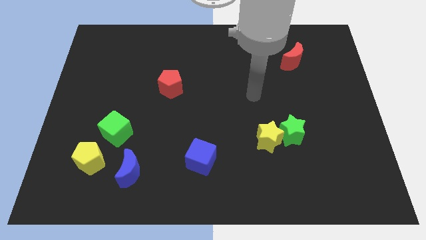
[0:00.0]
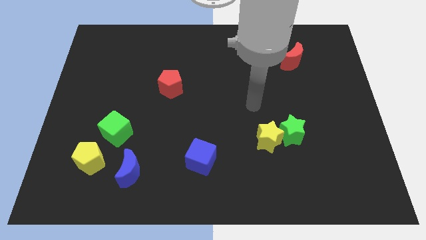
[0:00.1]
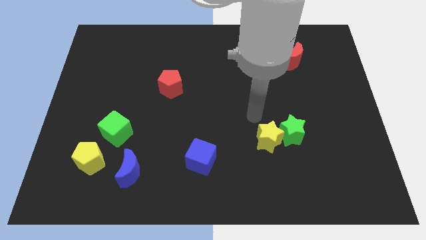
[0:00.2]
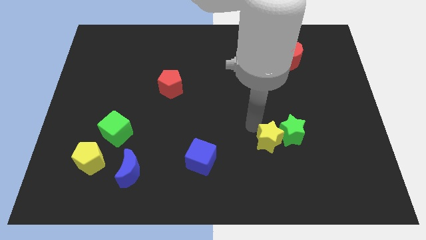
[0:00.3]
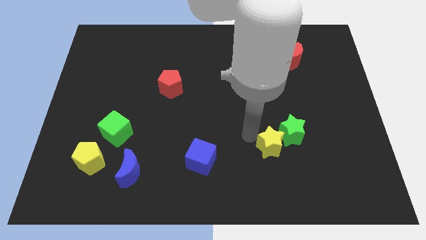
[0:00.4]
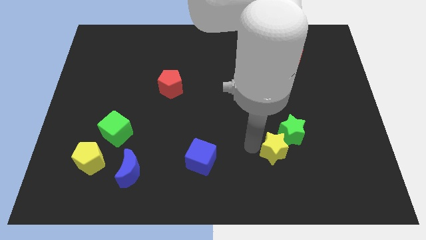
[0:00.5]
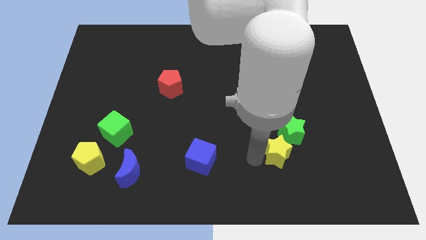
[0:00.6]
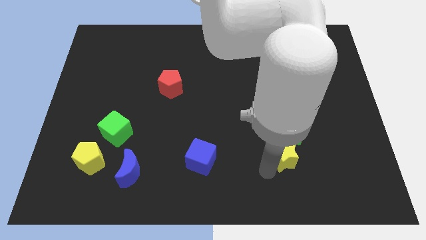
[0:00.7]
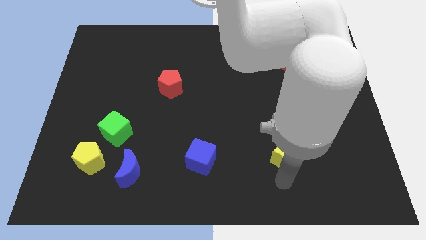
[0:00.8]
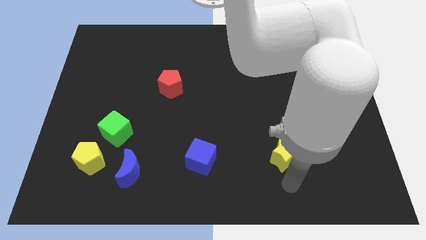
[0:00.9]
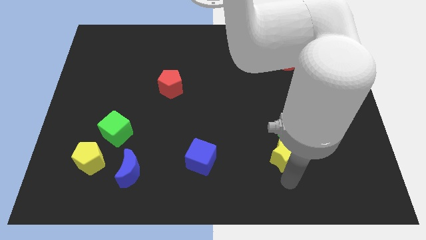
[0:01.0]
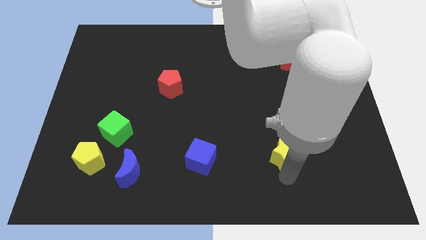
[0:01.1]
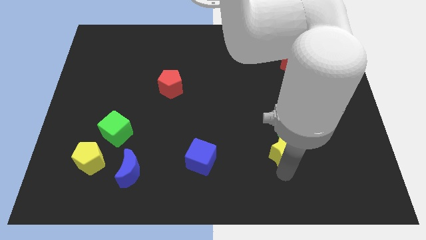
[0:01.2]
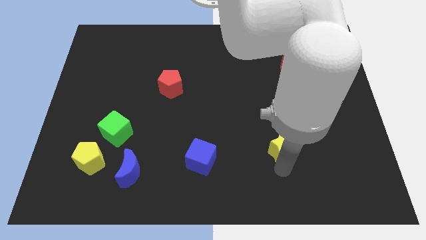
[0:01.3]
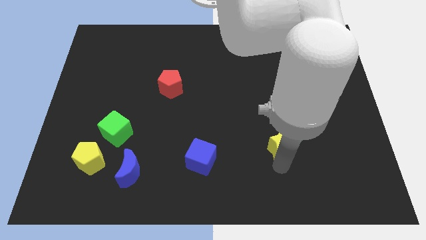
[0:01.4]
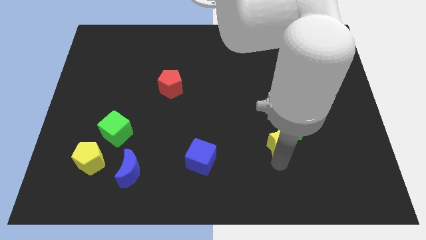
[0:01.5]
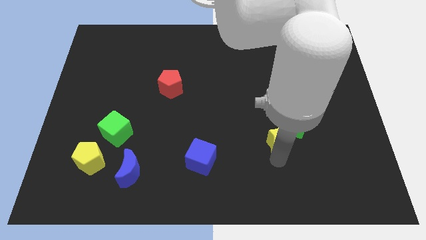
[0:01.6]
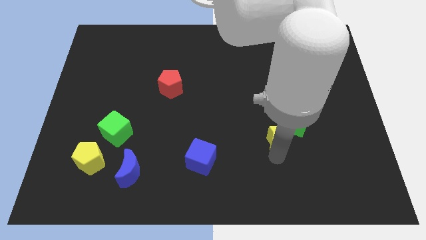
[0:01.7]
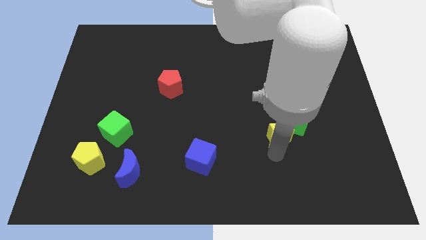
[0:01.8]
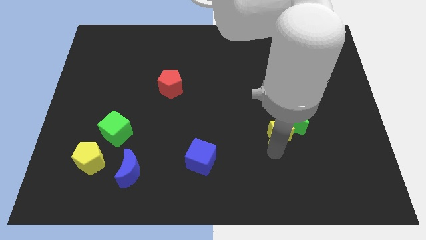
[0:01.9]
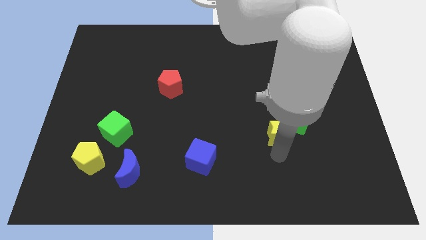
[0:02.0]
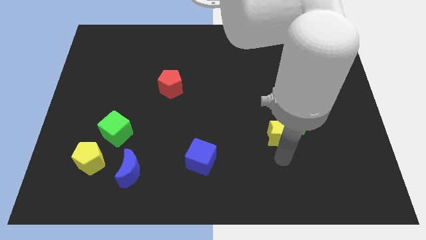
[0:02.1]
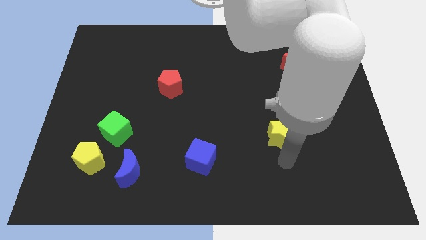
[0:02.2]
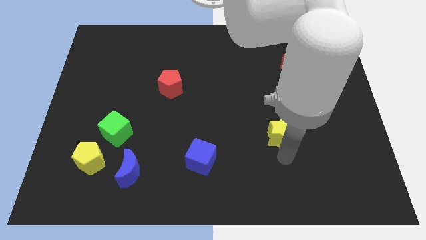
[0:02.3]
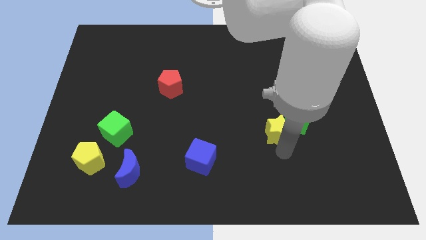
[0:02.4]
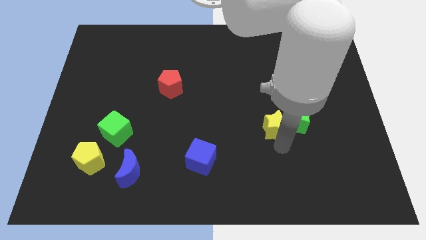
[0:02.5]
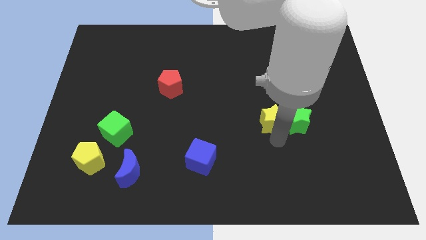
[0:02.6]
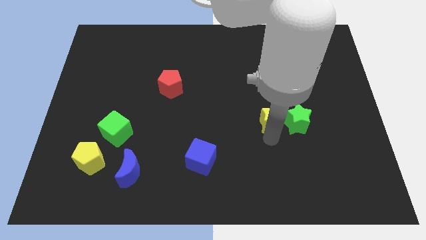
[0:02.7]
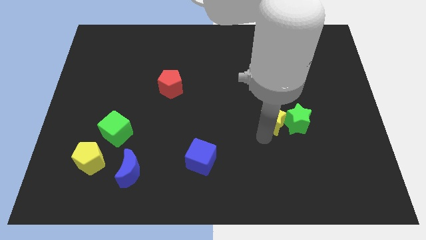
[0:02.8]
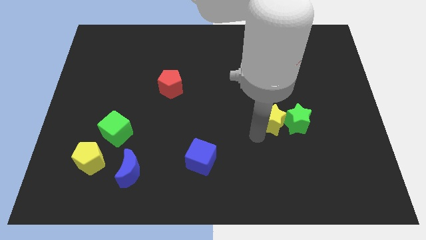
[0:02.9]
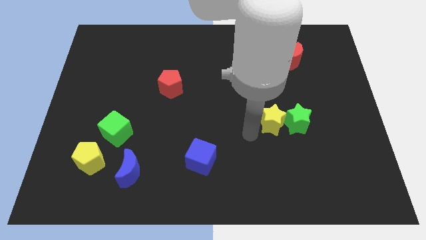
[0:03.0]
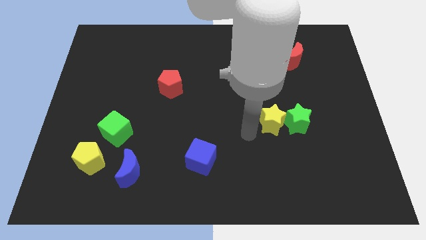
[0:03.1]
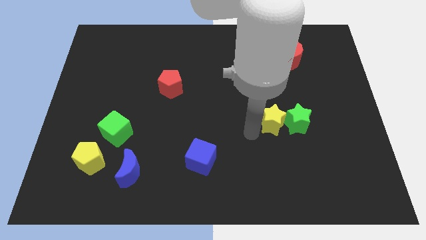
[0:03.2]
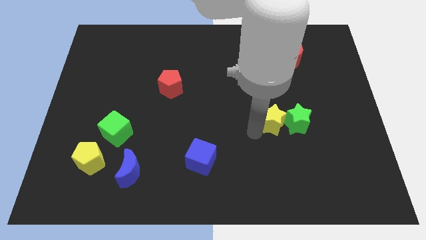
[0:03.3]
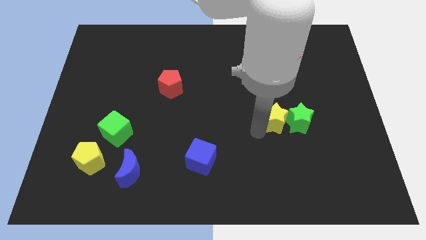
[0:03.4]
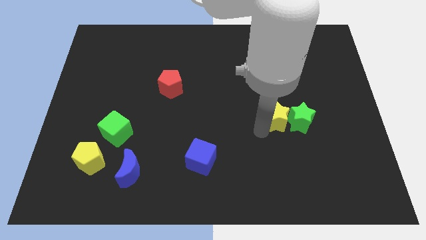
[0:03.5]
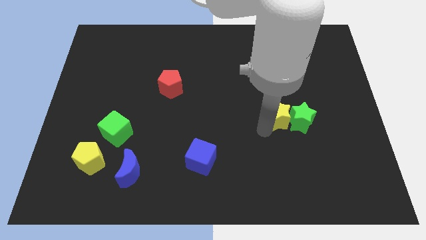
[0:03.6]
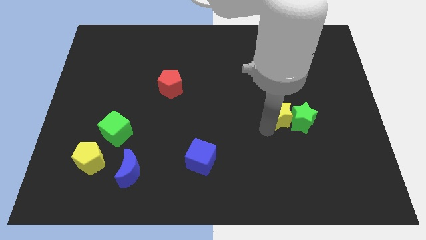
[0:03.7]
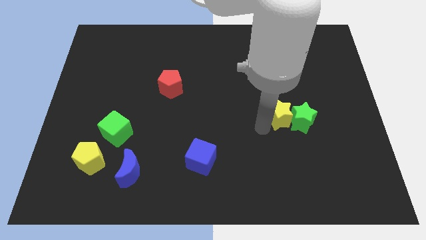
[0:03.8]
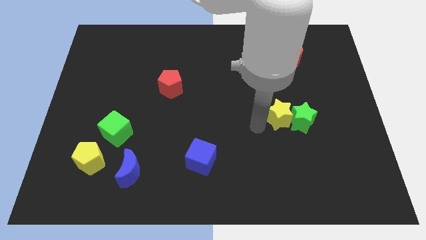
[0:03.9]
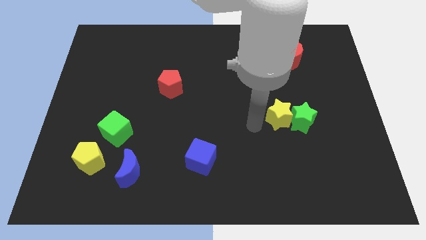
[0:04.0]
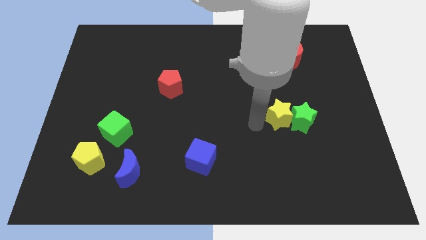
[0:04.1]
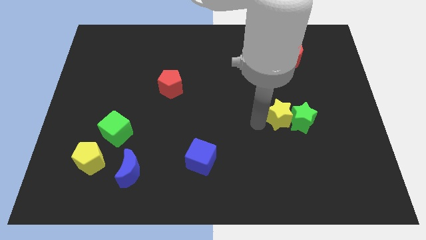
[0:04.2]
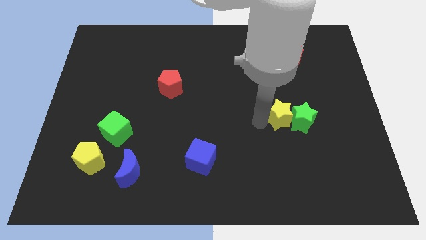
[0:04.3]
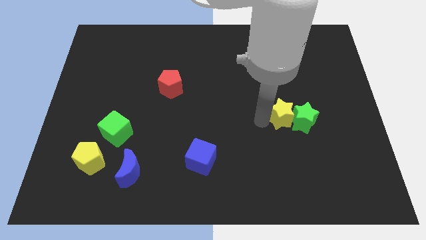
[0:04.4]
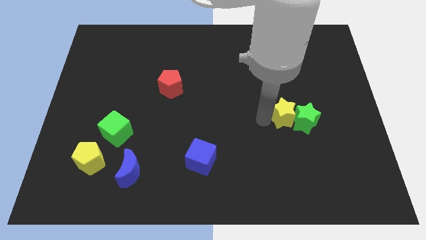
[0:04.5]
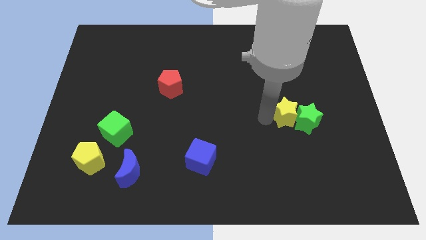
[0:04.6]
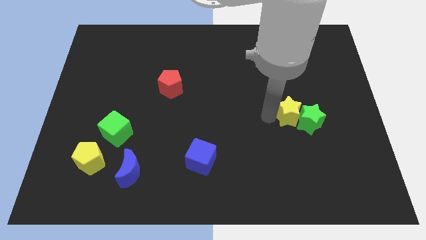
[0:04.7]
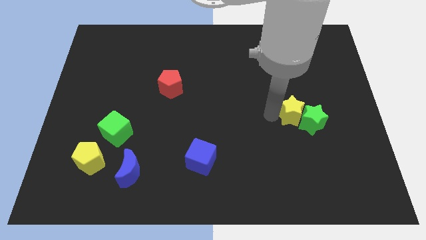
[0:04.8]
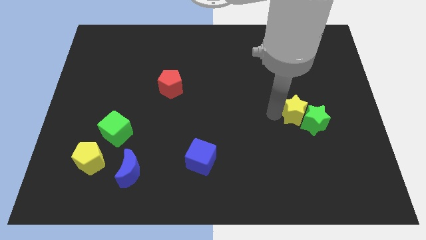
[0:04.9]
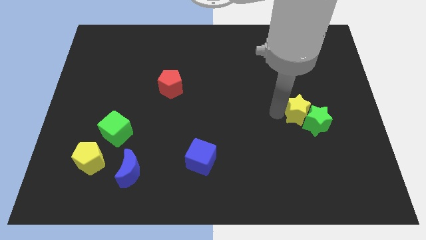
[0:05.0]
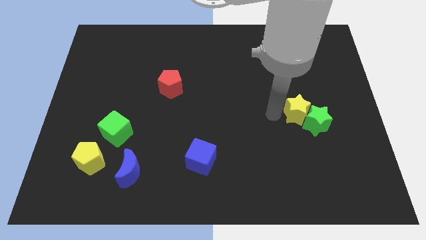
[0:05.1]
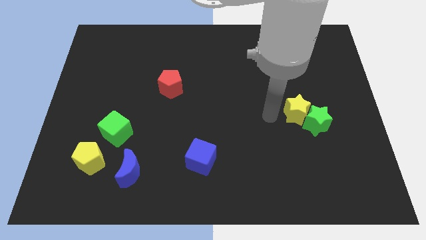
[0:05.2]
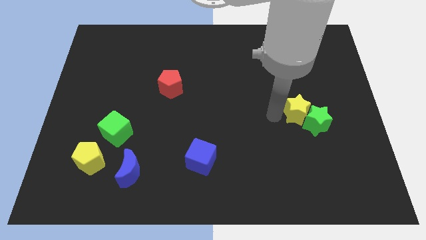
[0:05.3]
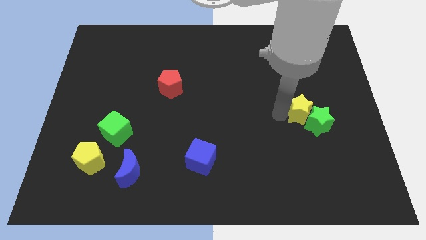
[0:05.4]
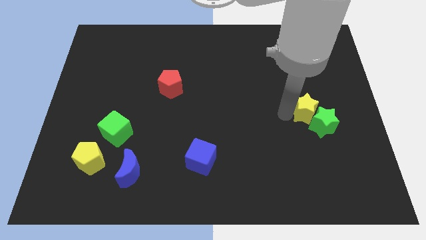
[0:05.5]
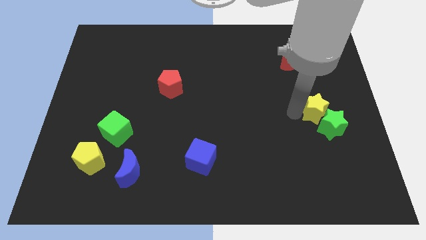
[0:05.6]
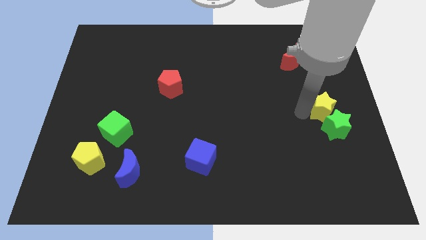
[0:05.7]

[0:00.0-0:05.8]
slide the yellow star to the right side of the board
